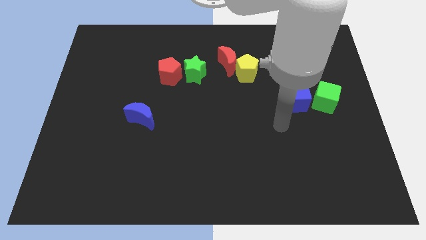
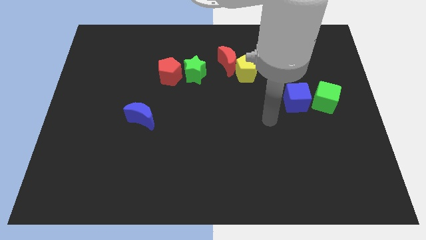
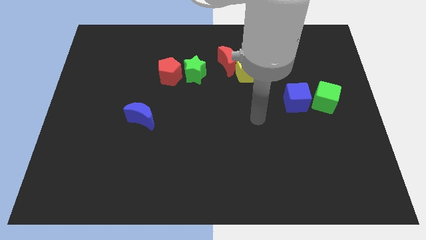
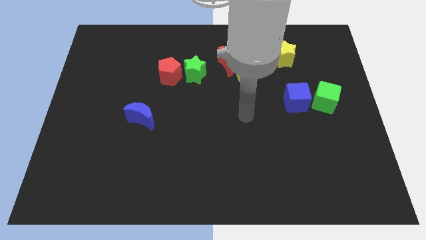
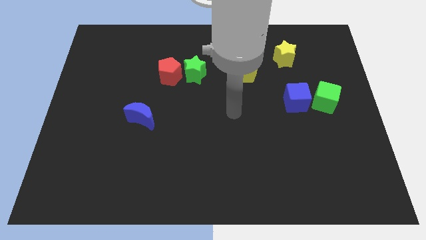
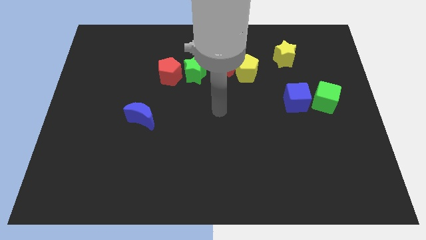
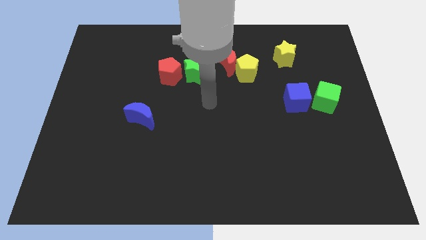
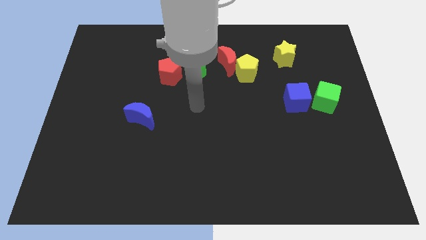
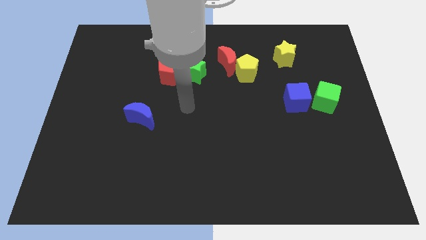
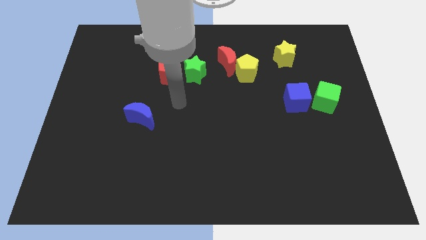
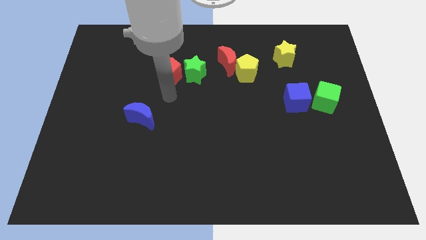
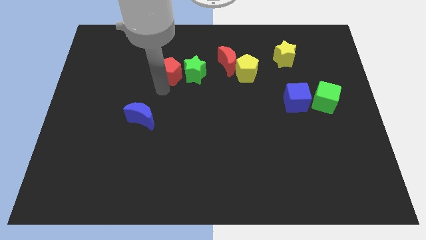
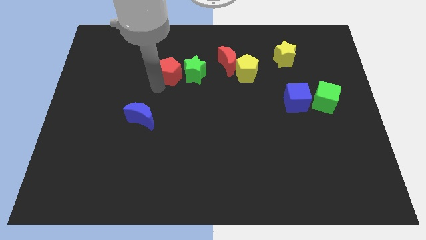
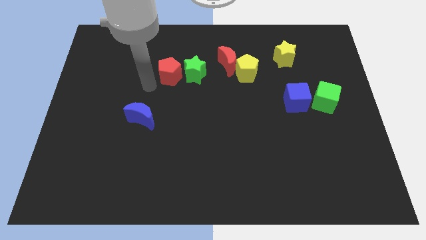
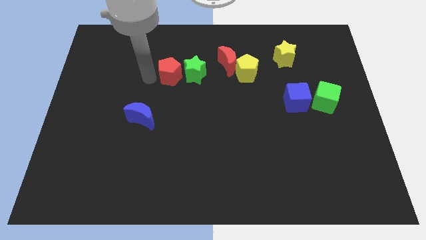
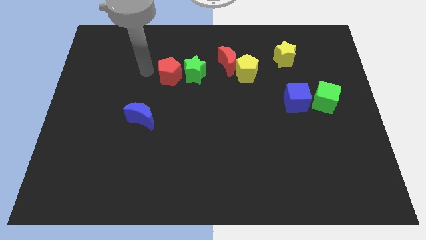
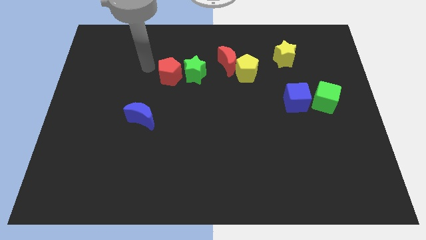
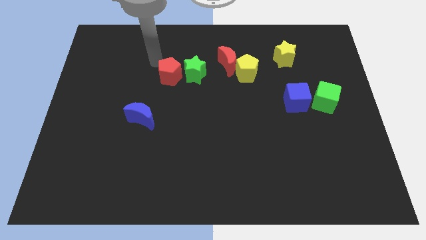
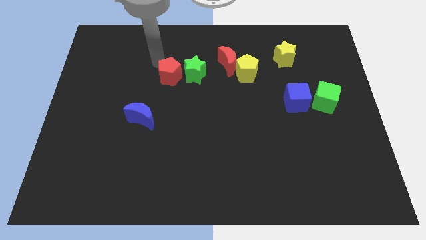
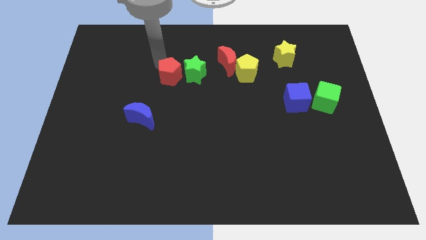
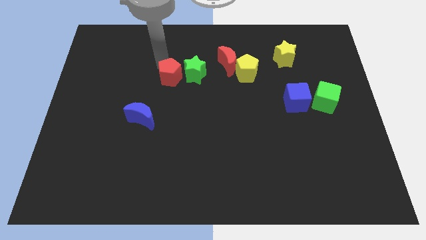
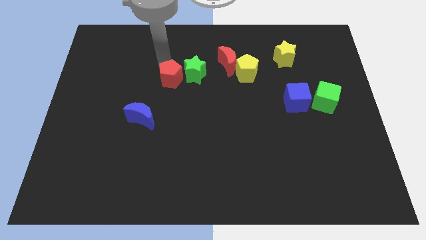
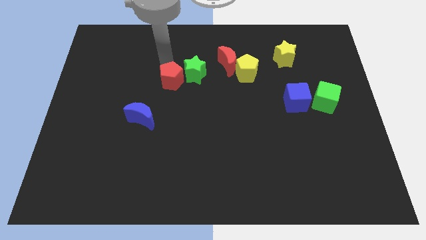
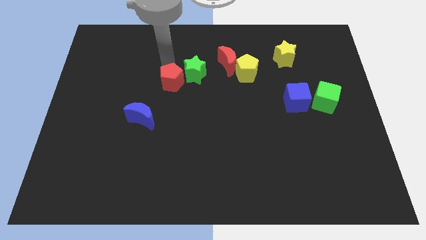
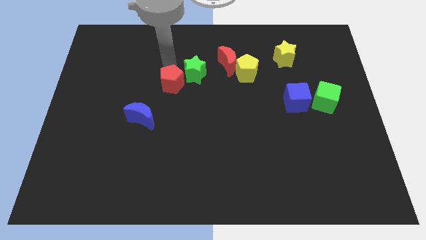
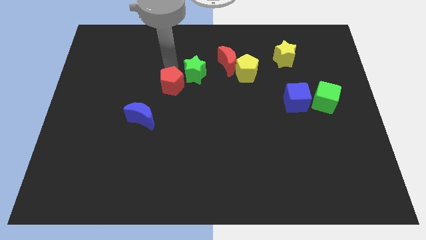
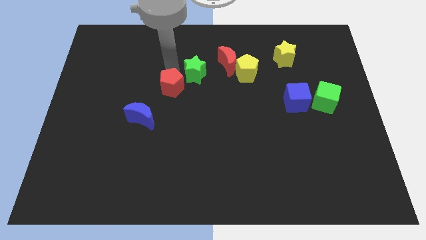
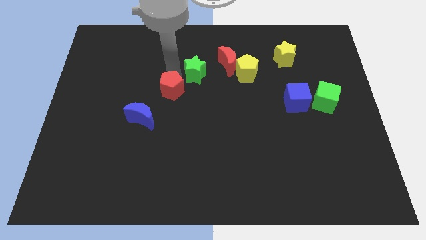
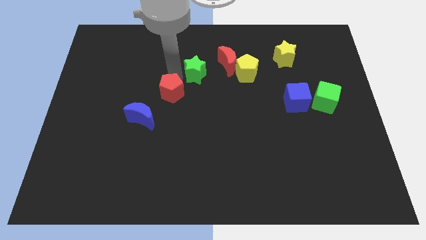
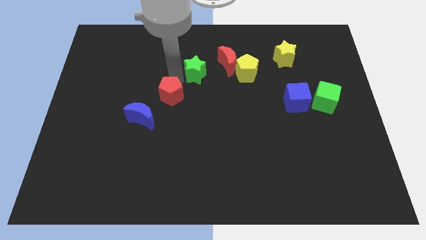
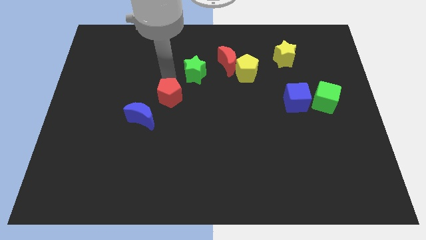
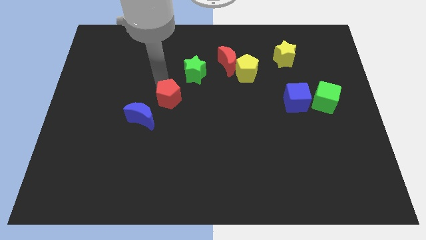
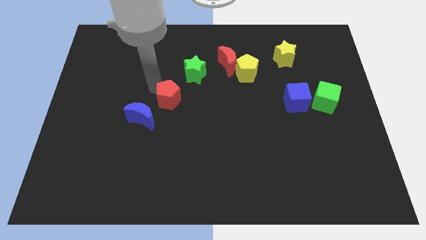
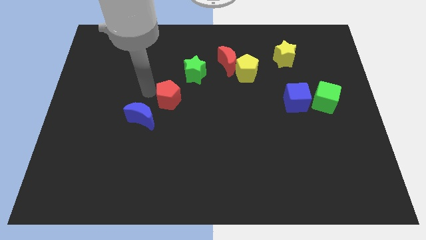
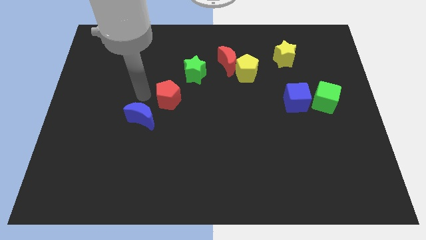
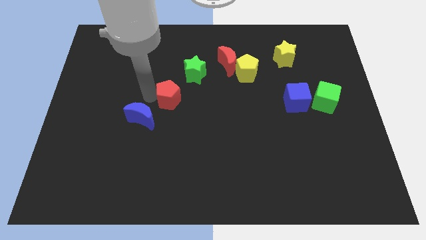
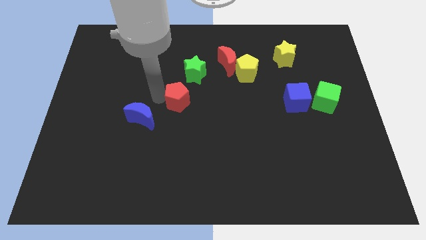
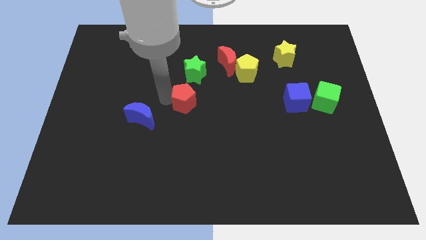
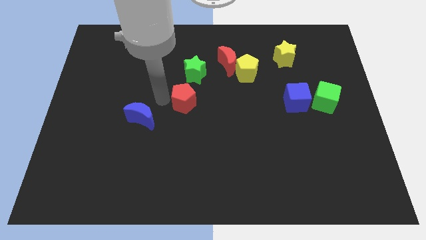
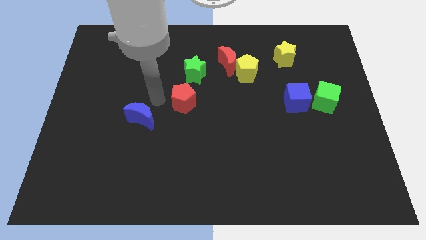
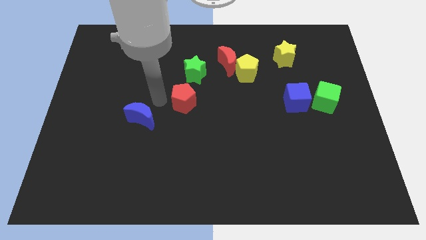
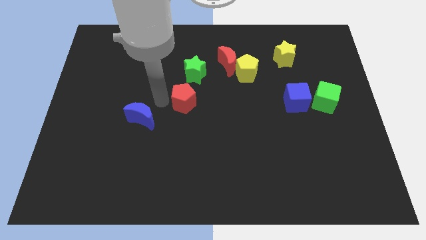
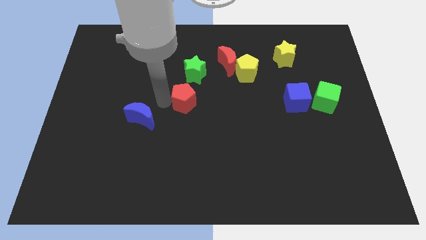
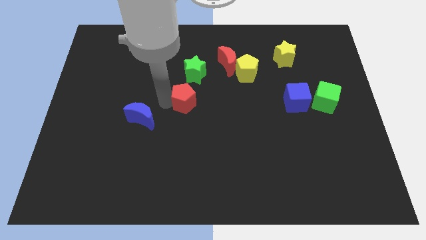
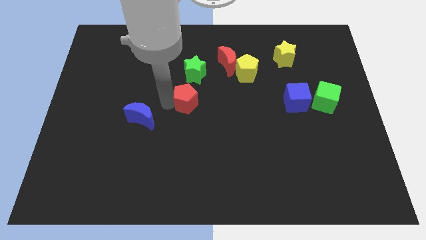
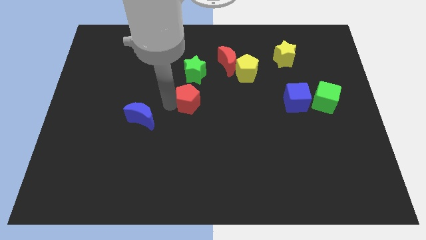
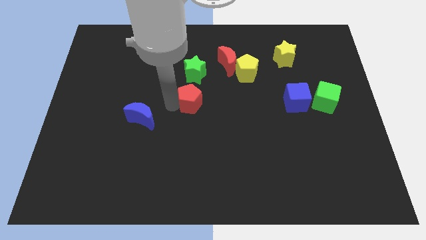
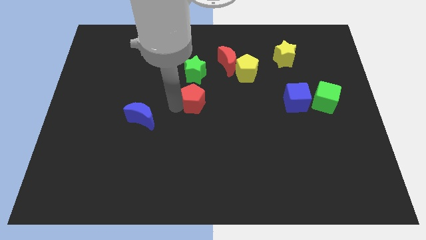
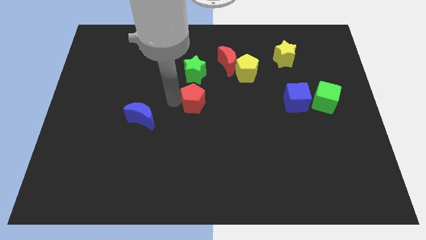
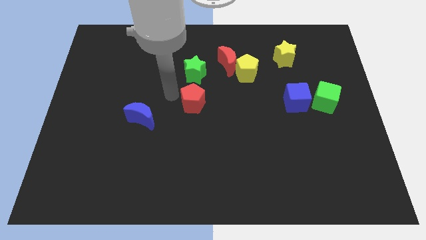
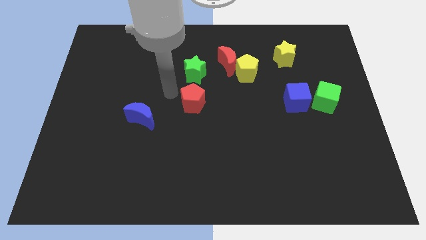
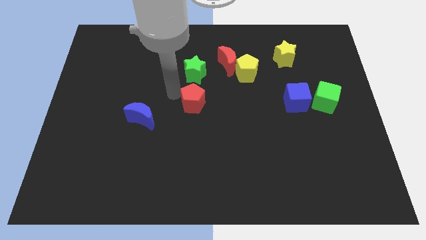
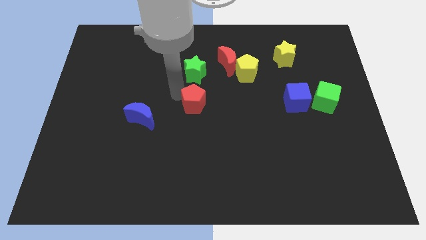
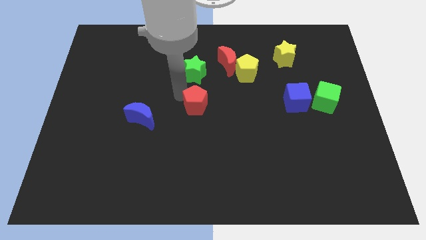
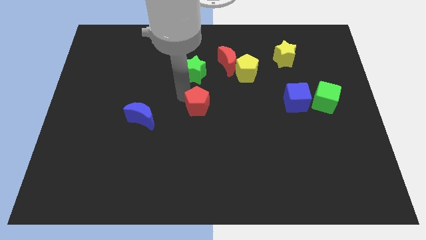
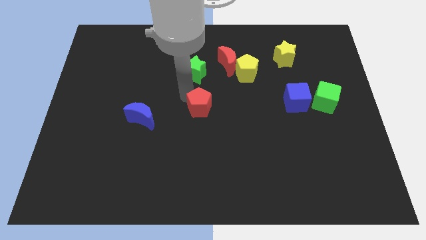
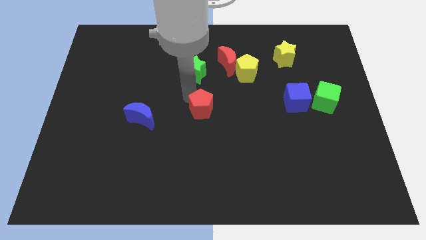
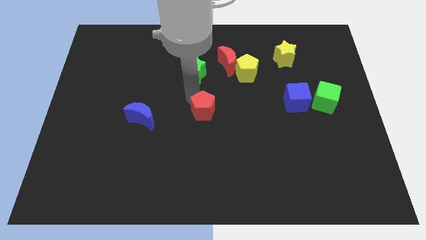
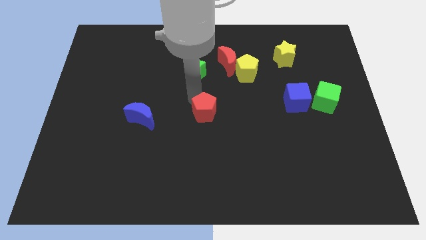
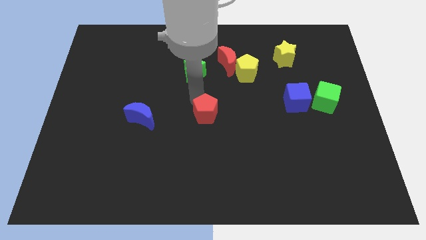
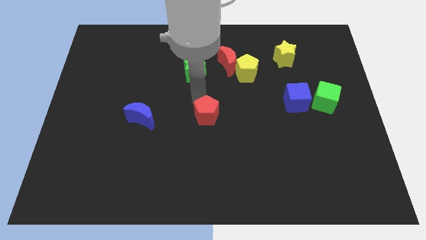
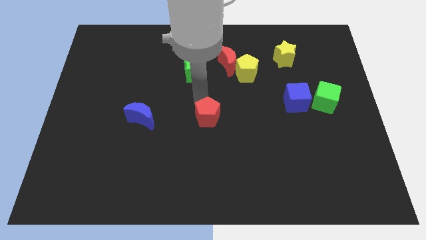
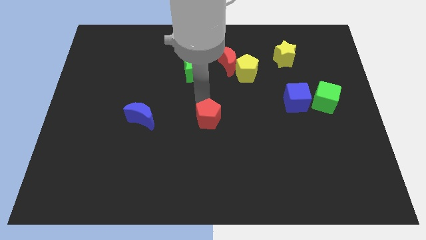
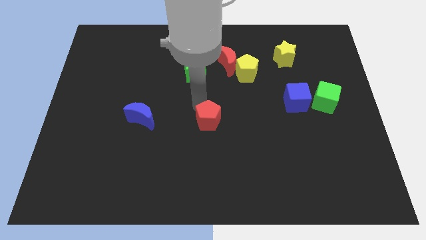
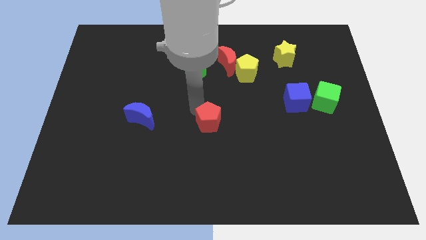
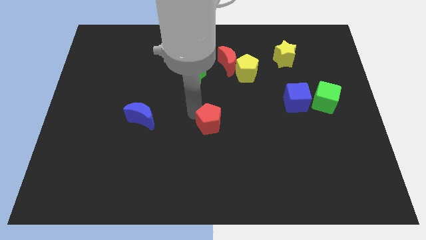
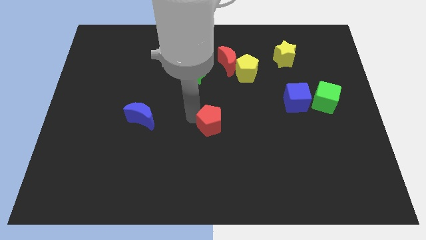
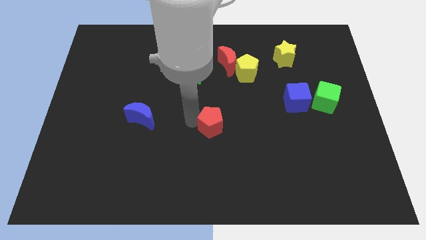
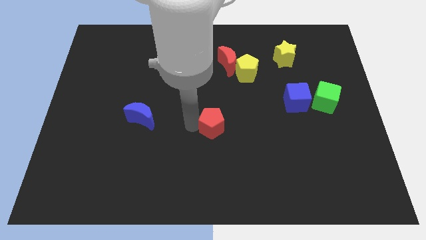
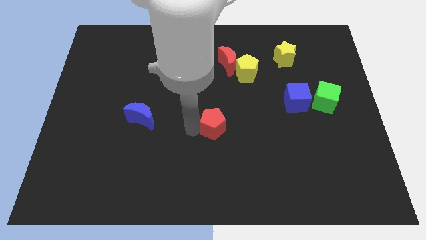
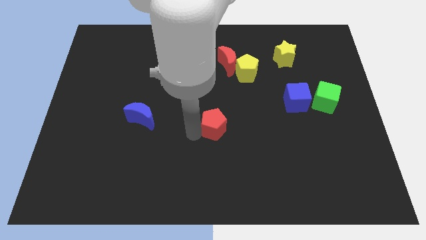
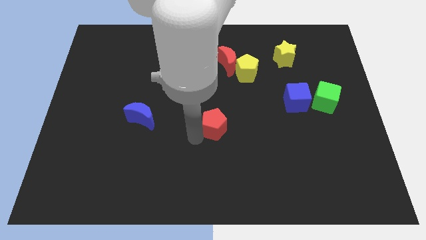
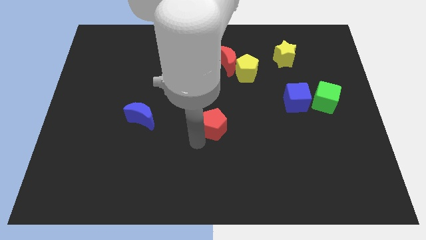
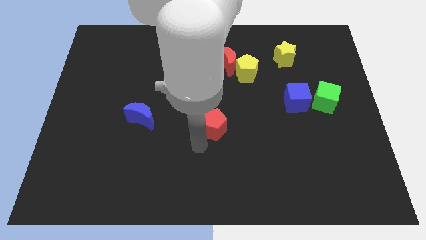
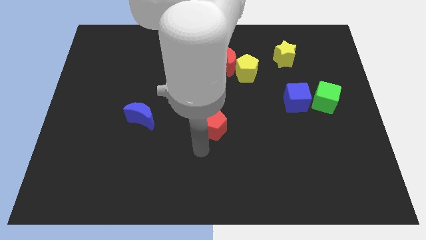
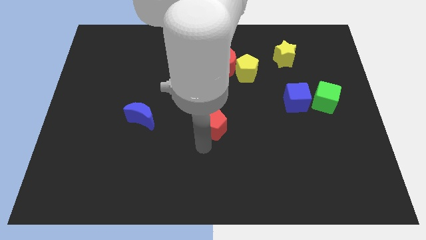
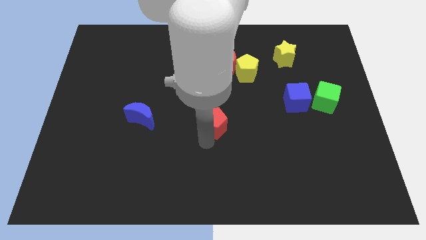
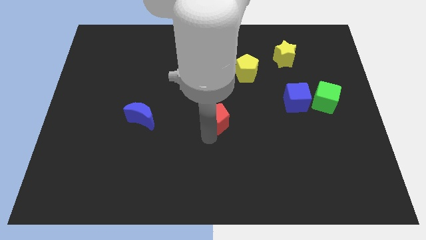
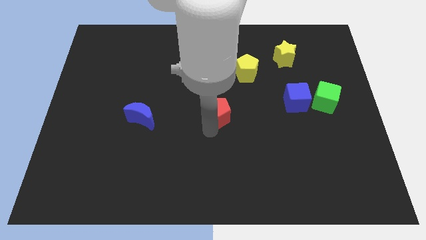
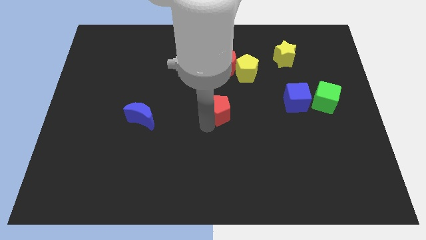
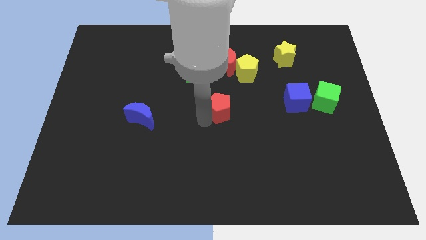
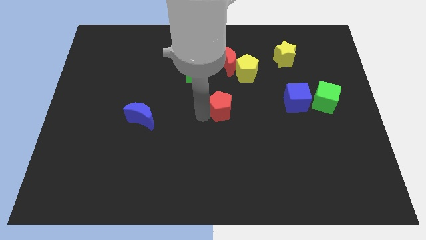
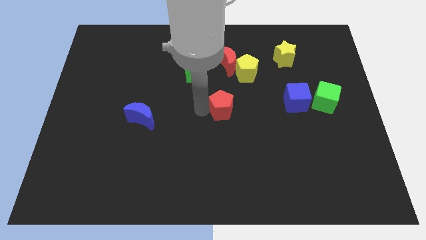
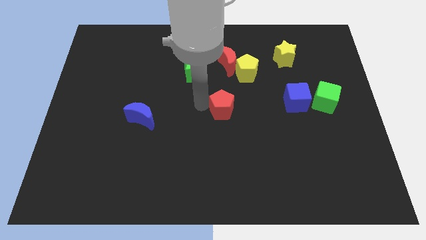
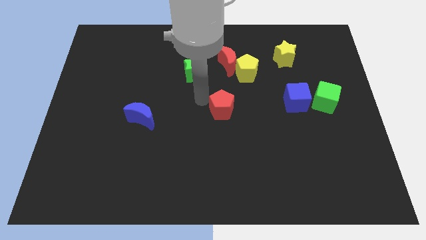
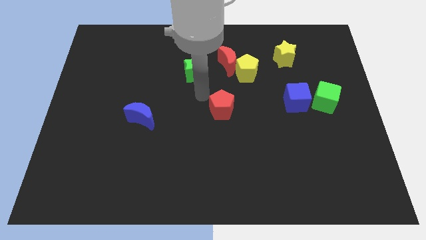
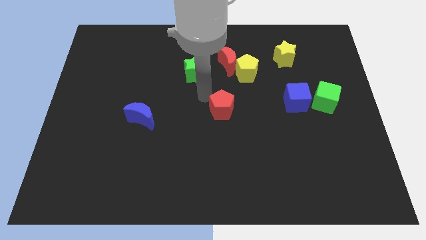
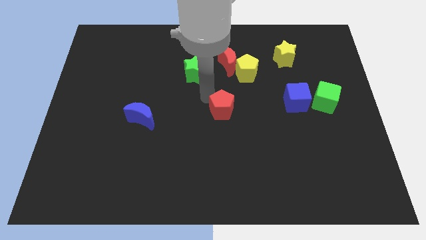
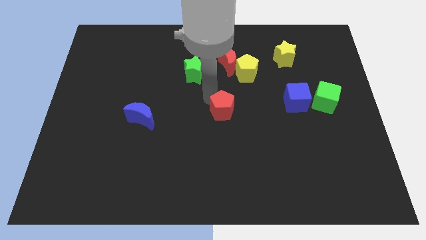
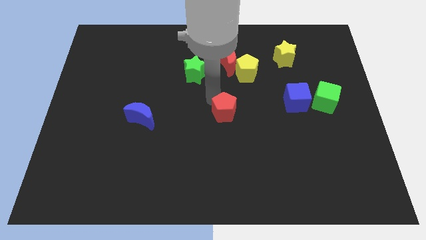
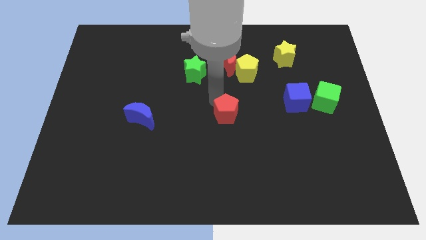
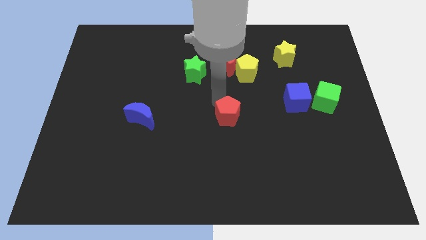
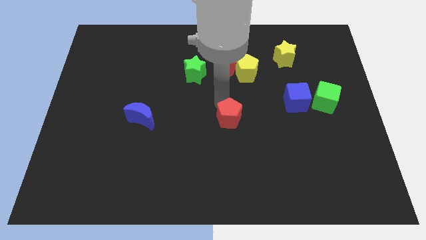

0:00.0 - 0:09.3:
push the red pentagon downwards and then right
